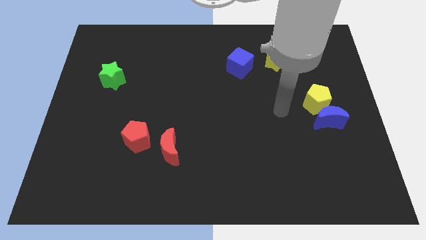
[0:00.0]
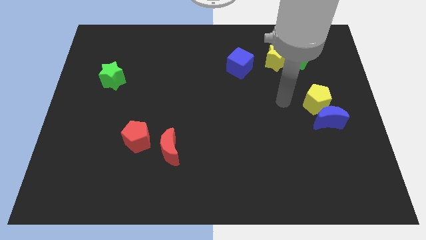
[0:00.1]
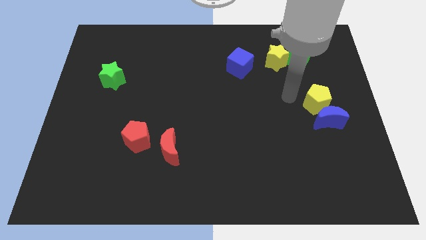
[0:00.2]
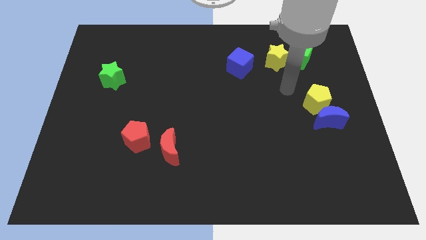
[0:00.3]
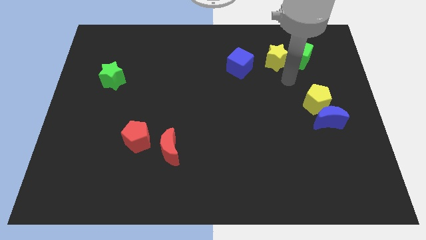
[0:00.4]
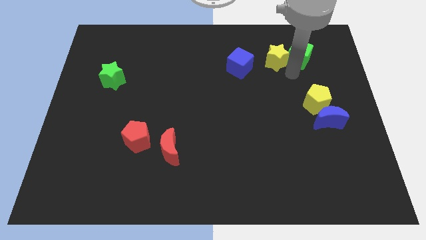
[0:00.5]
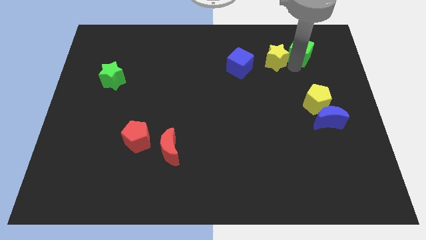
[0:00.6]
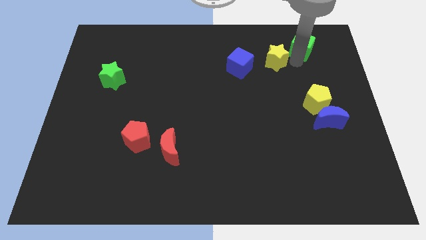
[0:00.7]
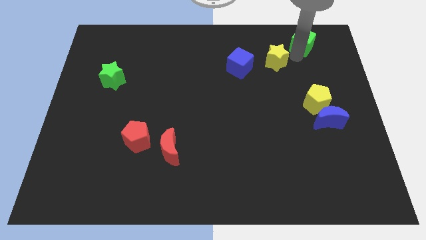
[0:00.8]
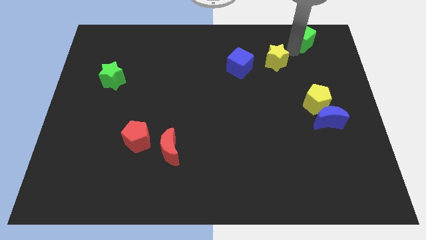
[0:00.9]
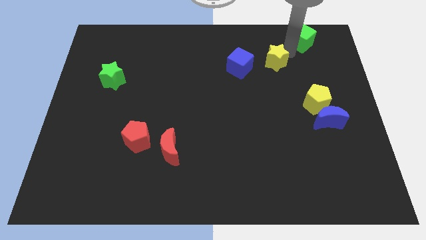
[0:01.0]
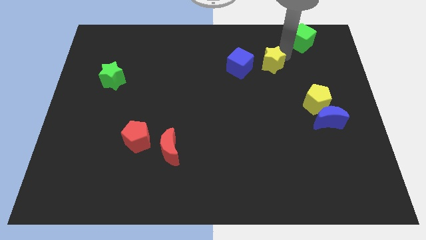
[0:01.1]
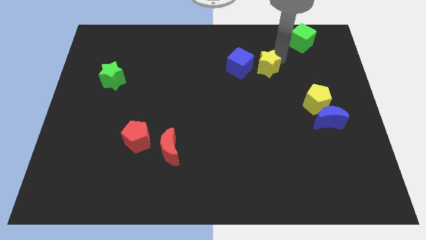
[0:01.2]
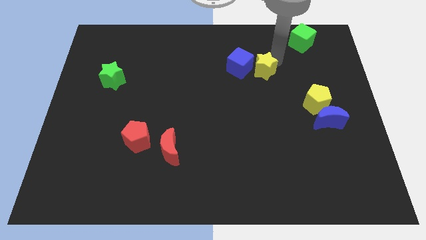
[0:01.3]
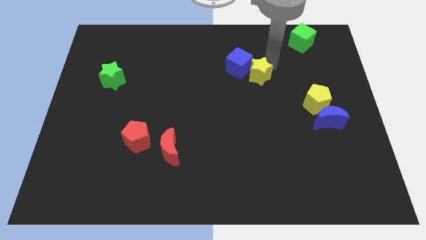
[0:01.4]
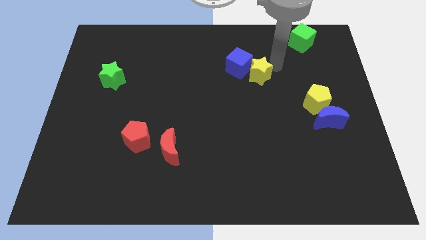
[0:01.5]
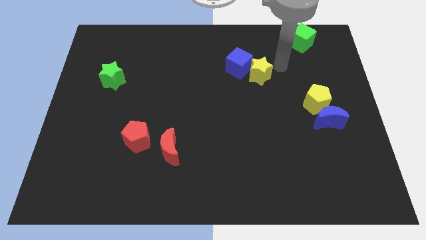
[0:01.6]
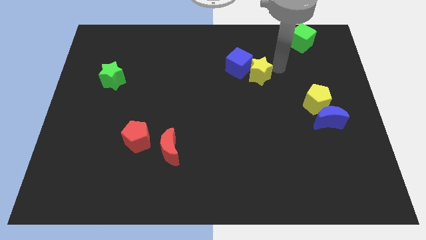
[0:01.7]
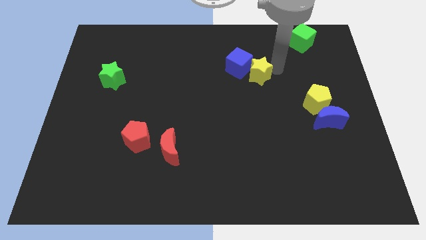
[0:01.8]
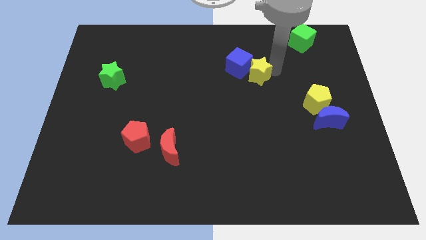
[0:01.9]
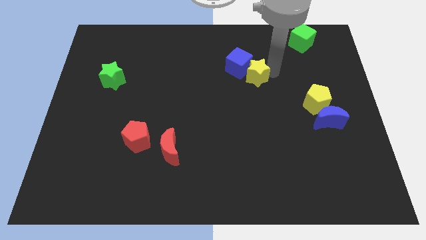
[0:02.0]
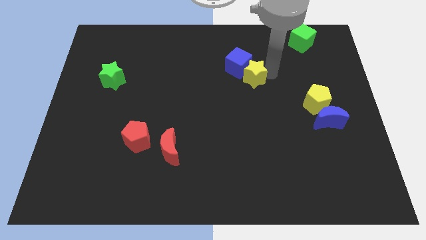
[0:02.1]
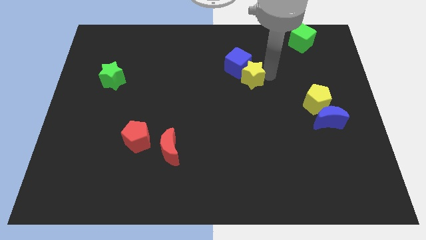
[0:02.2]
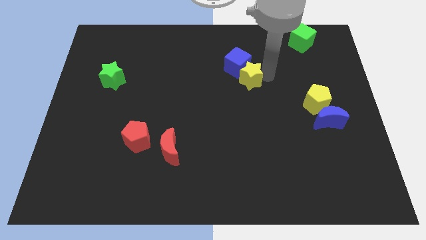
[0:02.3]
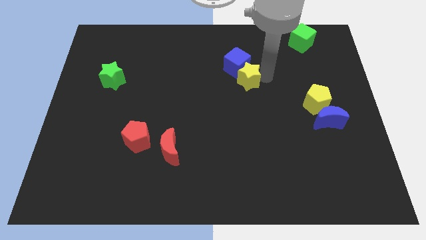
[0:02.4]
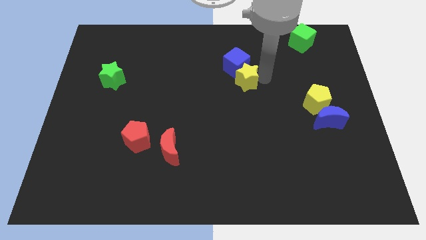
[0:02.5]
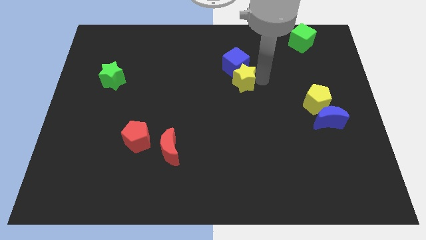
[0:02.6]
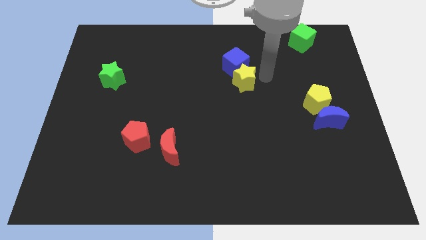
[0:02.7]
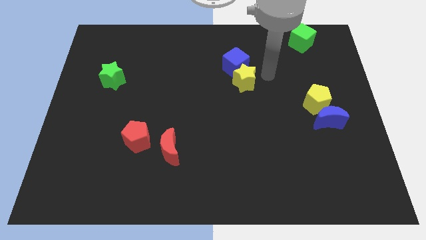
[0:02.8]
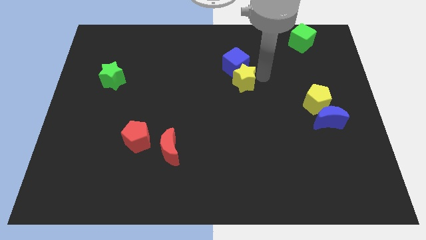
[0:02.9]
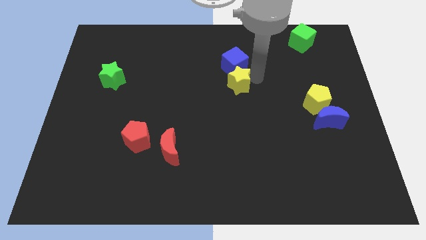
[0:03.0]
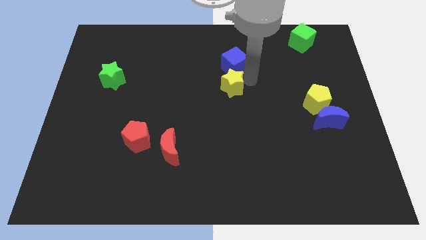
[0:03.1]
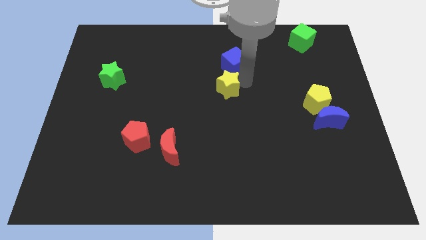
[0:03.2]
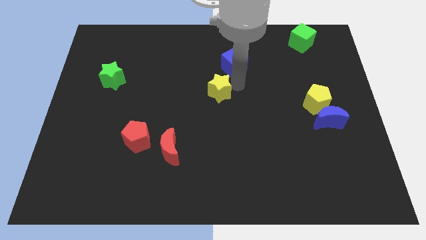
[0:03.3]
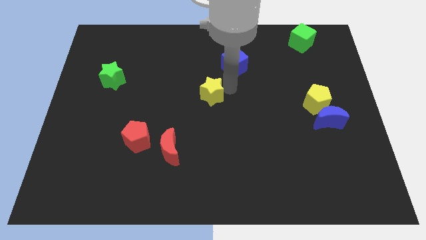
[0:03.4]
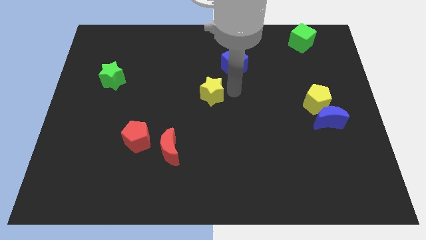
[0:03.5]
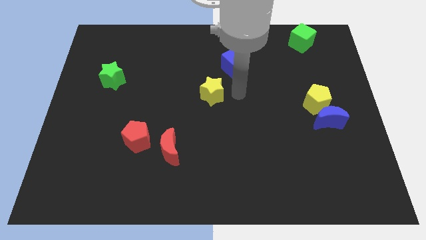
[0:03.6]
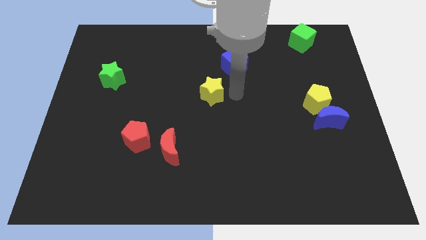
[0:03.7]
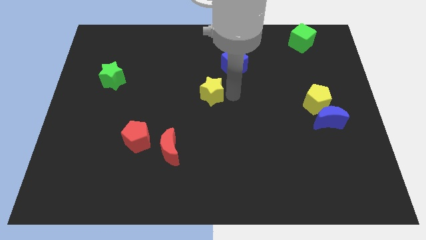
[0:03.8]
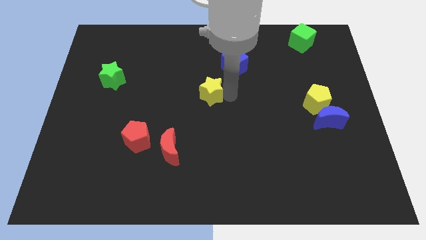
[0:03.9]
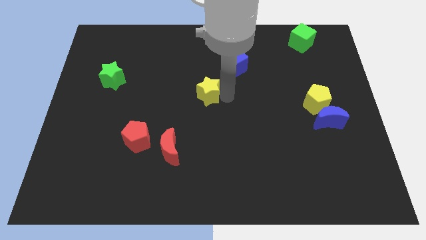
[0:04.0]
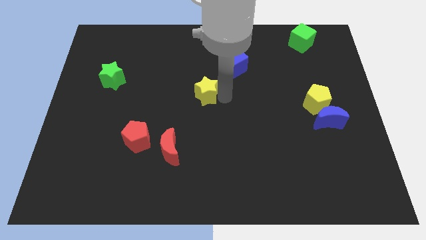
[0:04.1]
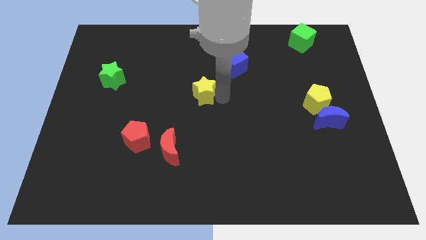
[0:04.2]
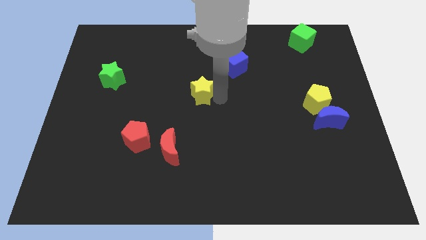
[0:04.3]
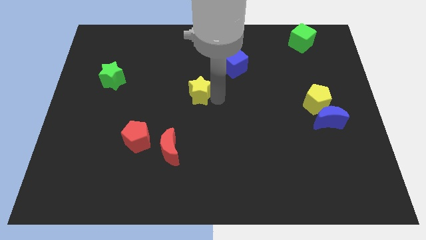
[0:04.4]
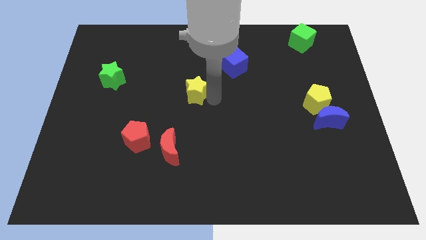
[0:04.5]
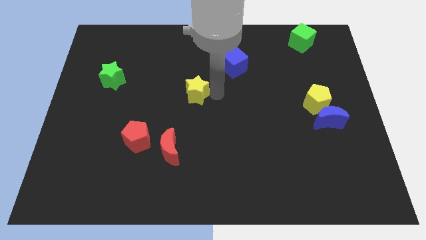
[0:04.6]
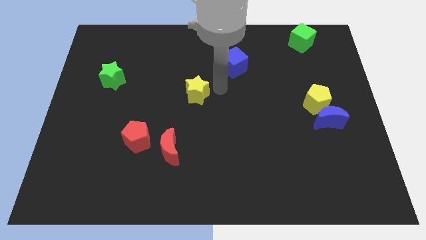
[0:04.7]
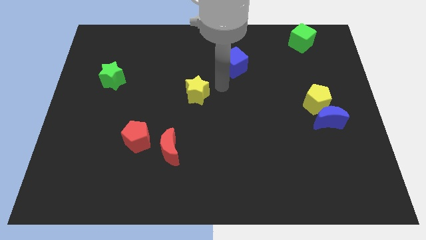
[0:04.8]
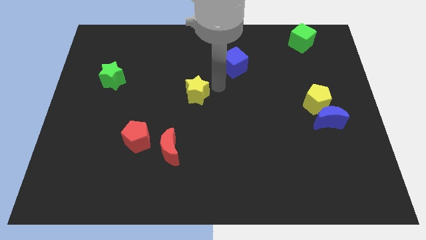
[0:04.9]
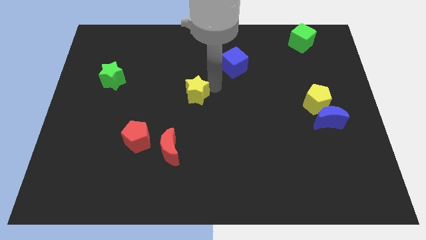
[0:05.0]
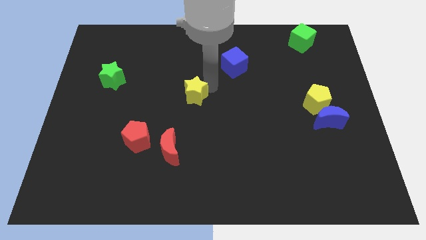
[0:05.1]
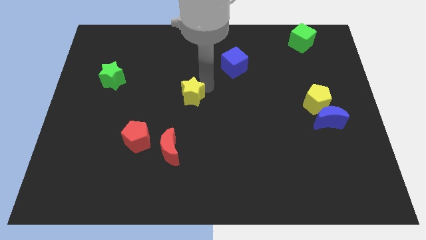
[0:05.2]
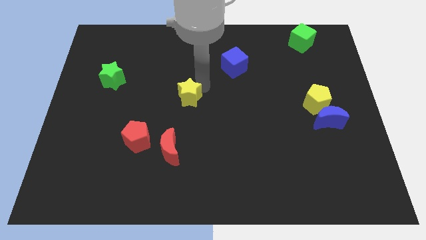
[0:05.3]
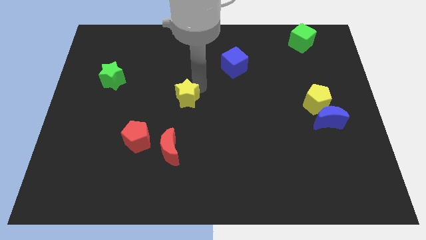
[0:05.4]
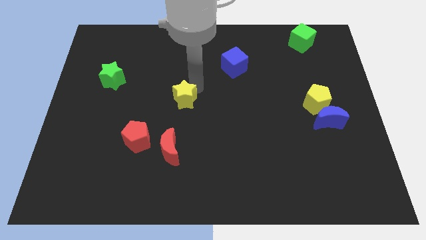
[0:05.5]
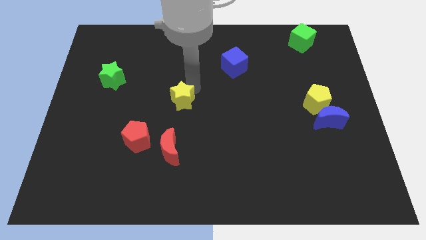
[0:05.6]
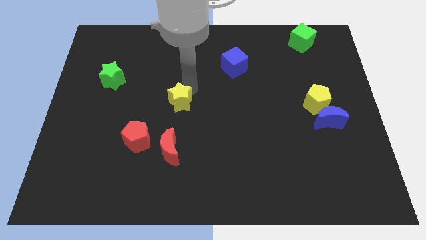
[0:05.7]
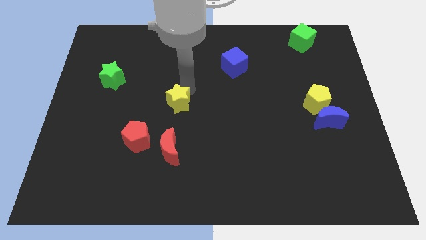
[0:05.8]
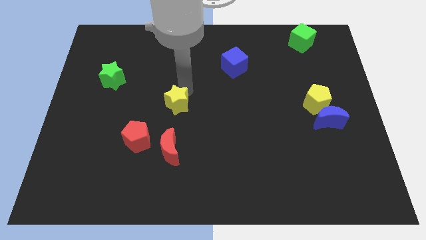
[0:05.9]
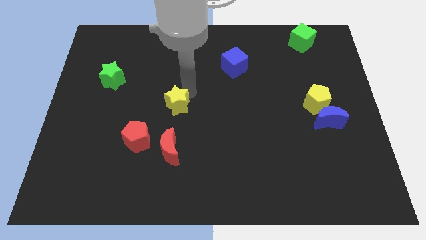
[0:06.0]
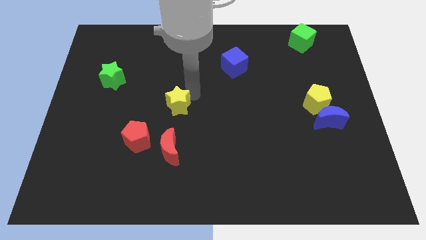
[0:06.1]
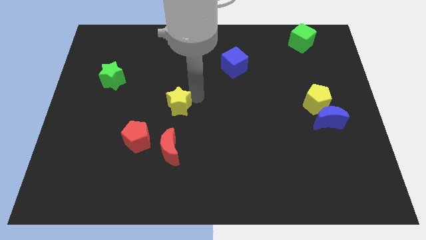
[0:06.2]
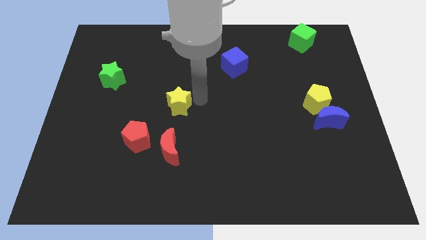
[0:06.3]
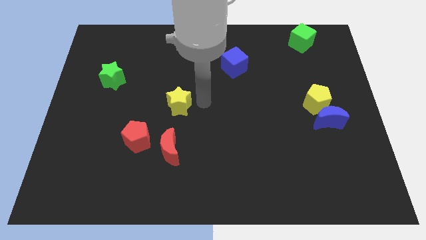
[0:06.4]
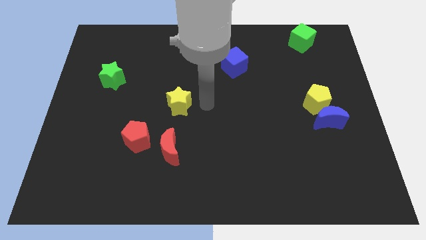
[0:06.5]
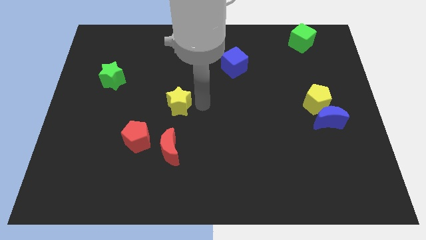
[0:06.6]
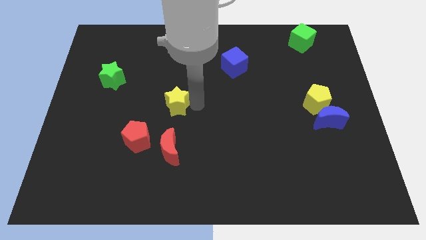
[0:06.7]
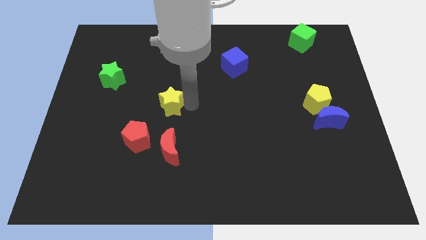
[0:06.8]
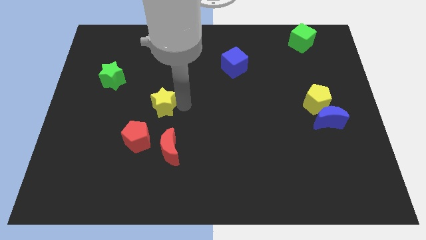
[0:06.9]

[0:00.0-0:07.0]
move the yellow star to the top of the red pentagon
